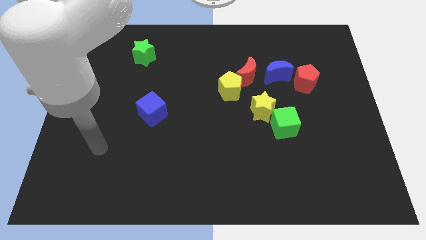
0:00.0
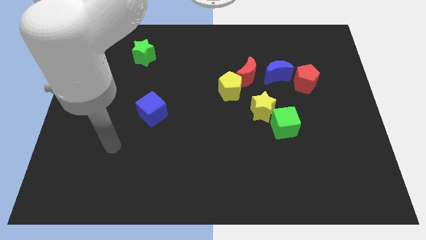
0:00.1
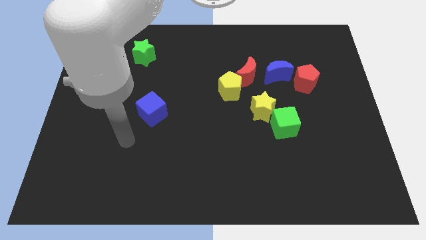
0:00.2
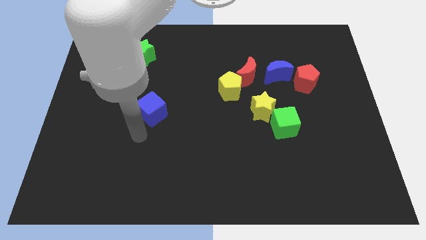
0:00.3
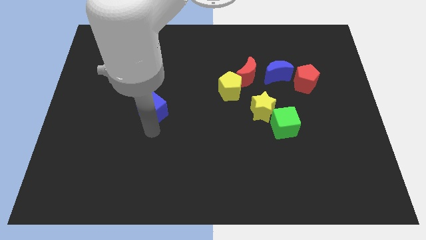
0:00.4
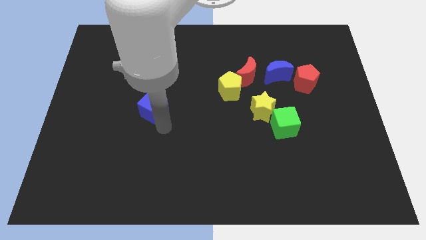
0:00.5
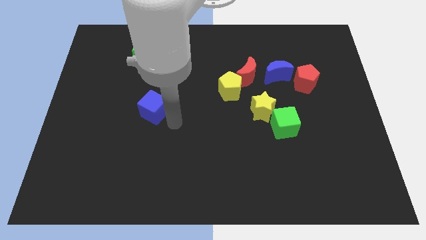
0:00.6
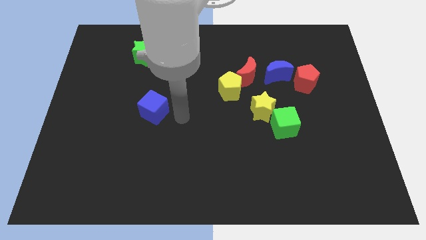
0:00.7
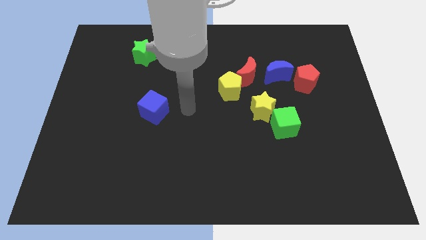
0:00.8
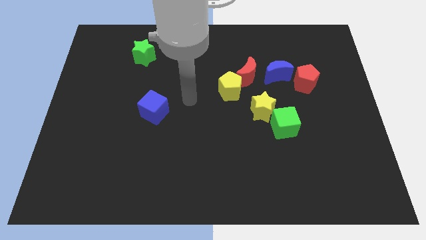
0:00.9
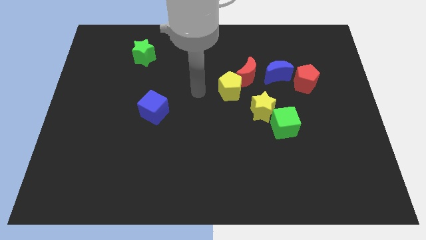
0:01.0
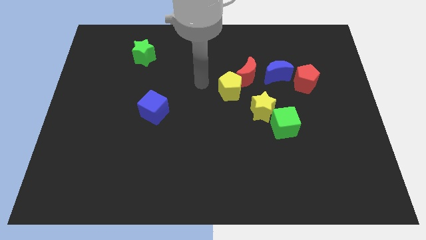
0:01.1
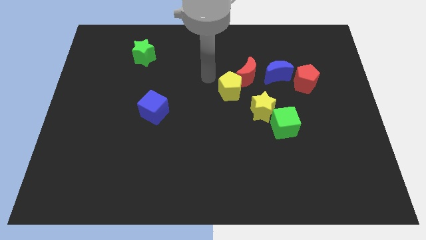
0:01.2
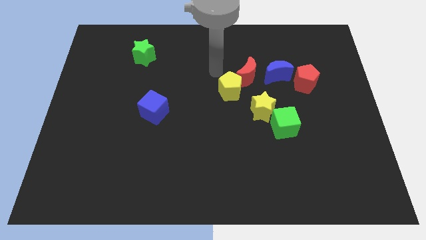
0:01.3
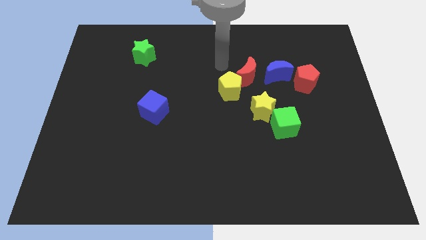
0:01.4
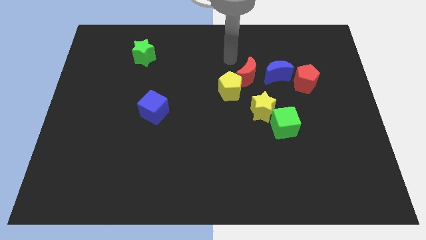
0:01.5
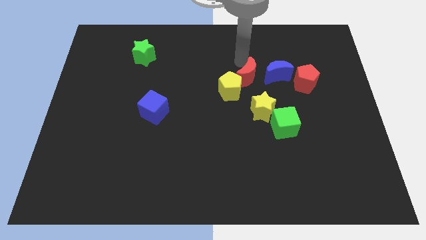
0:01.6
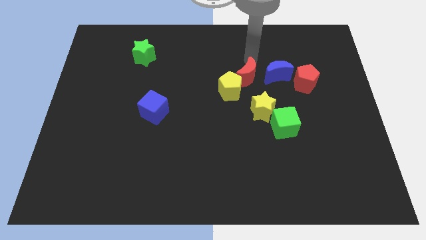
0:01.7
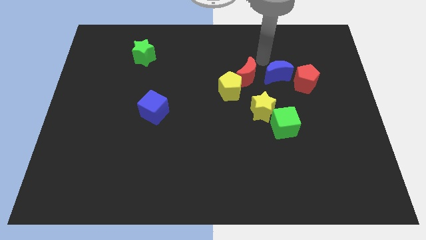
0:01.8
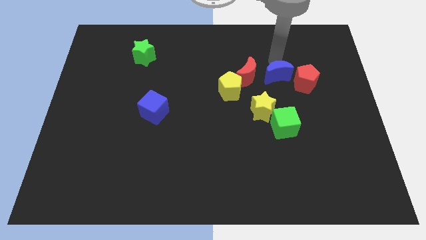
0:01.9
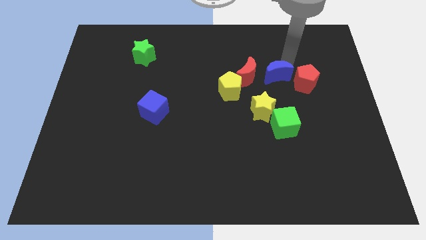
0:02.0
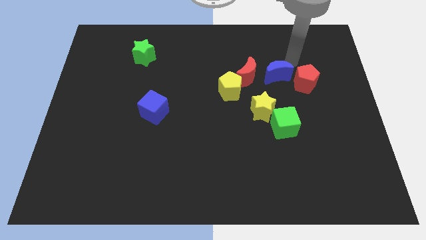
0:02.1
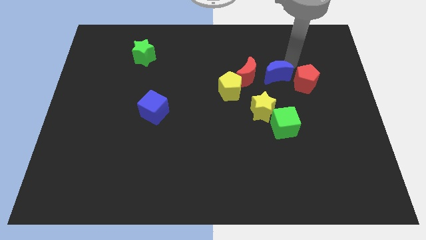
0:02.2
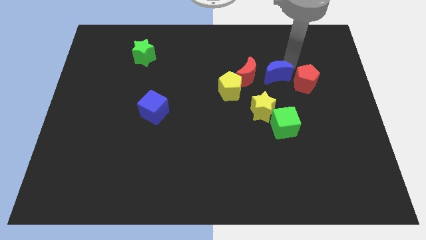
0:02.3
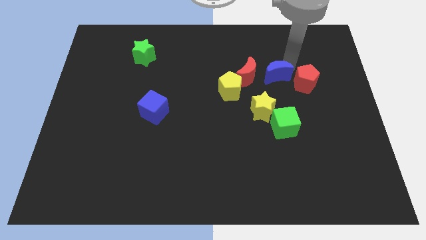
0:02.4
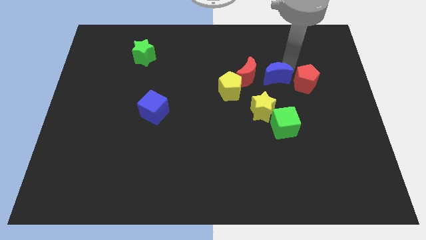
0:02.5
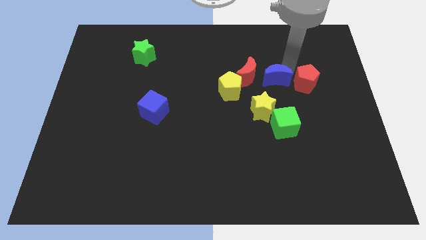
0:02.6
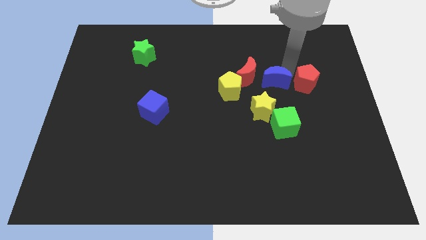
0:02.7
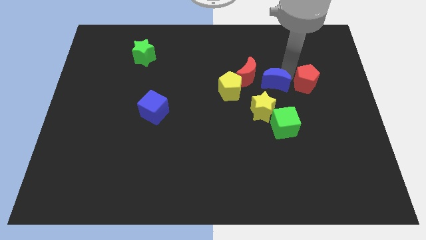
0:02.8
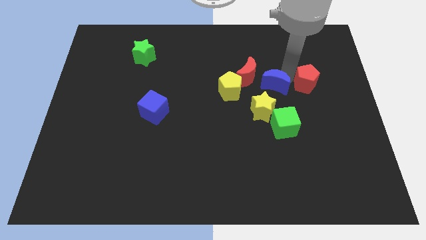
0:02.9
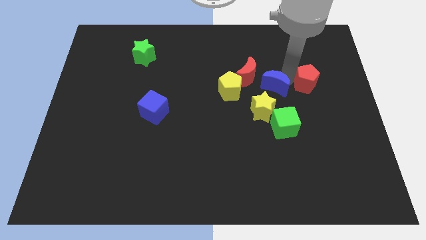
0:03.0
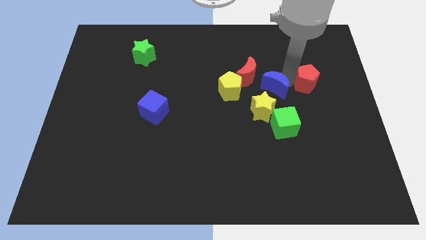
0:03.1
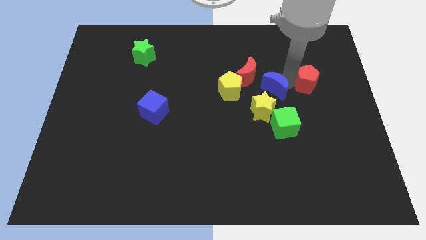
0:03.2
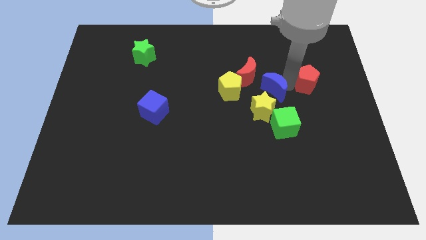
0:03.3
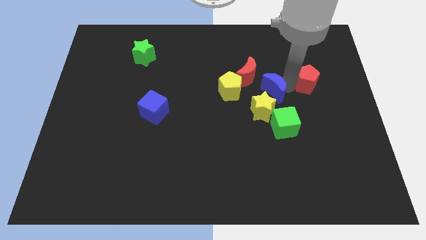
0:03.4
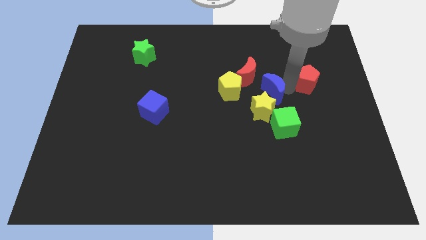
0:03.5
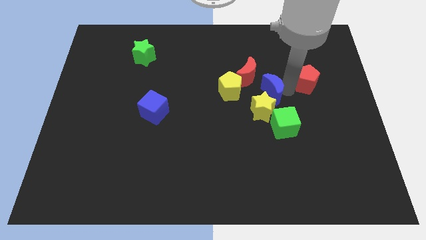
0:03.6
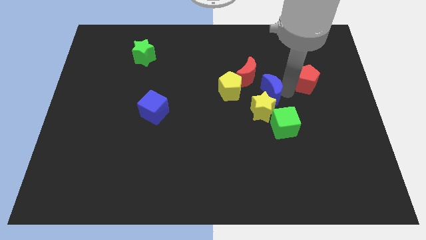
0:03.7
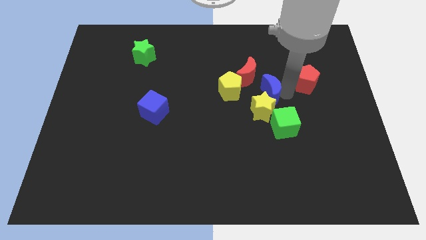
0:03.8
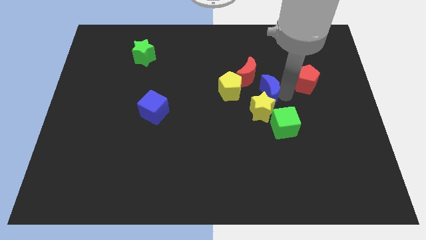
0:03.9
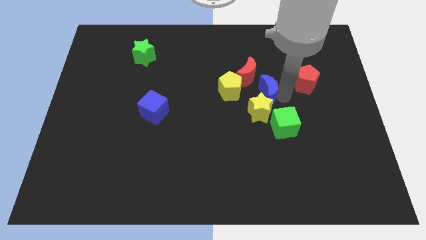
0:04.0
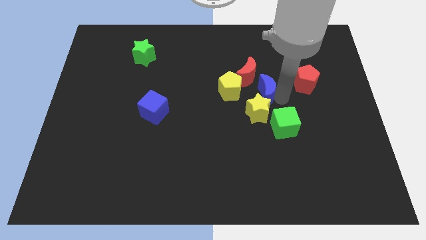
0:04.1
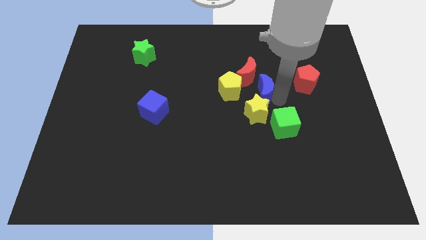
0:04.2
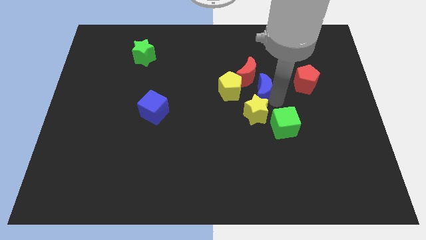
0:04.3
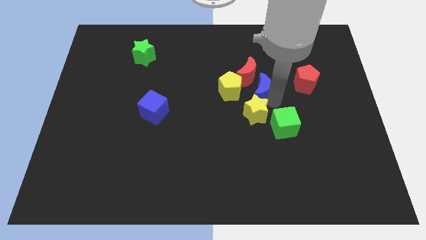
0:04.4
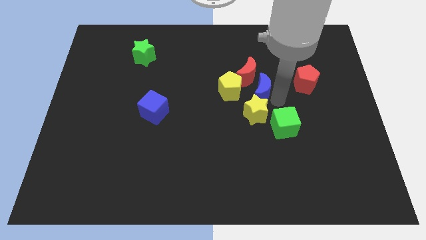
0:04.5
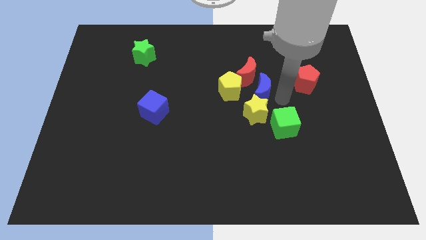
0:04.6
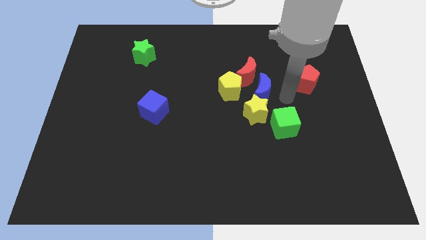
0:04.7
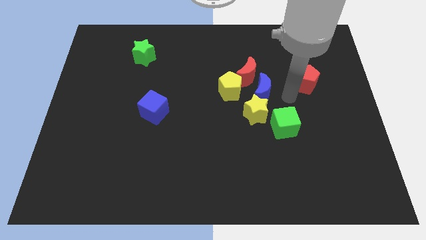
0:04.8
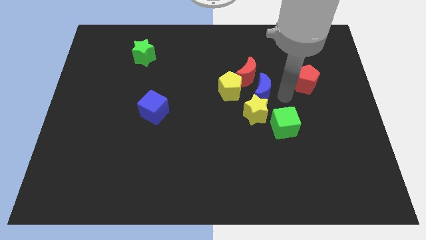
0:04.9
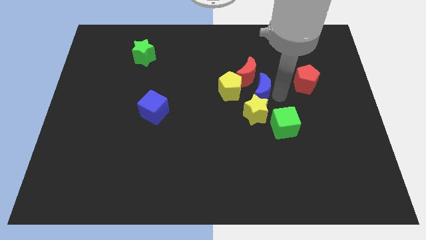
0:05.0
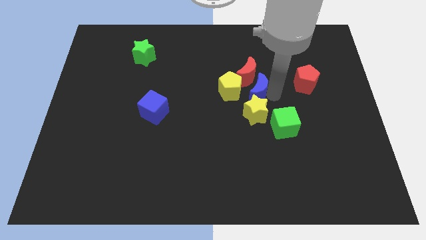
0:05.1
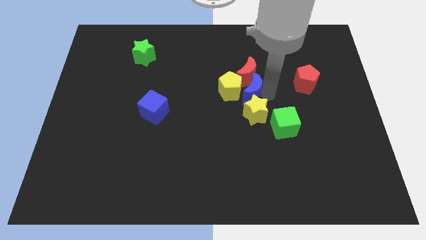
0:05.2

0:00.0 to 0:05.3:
move the blue moon towards the yellow pentagon

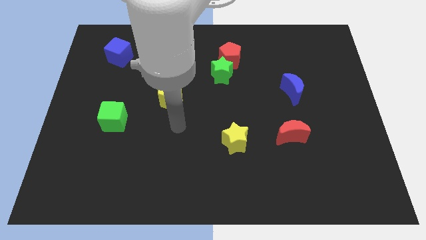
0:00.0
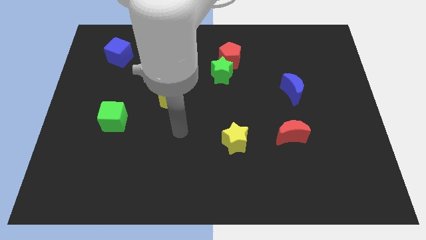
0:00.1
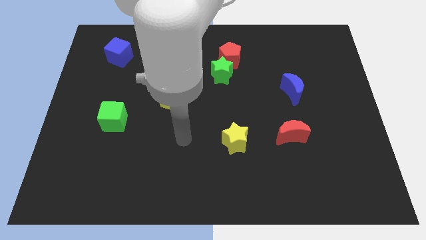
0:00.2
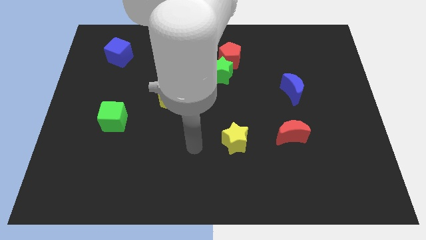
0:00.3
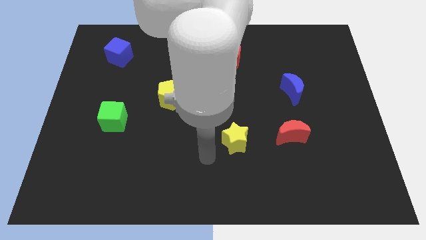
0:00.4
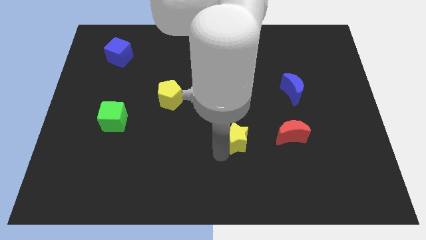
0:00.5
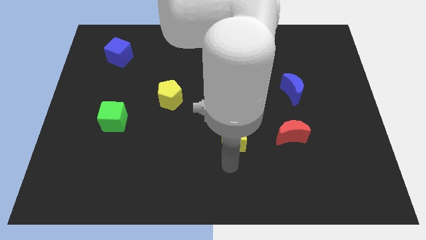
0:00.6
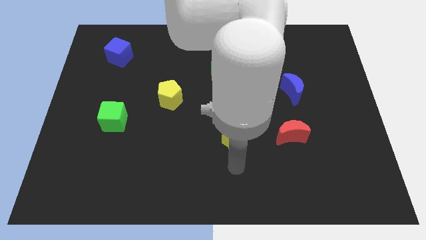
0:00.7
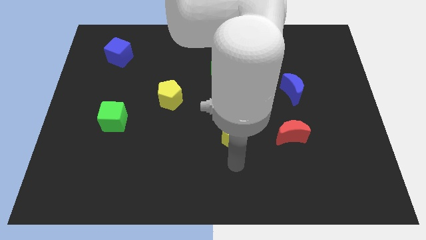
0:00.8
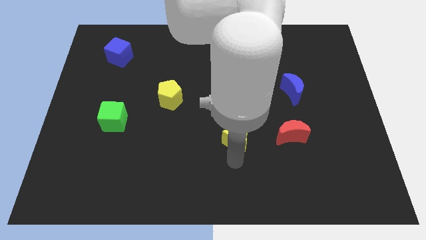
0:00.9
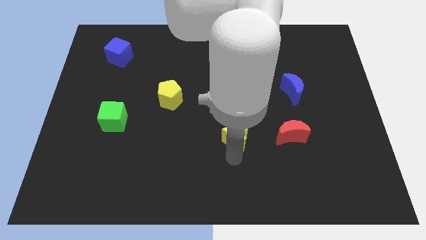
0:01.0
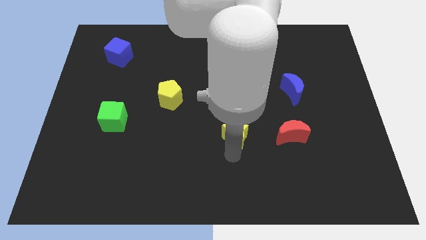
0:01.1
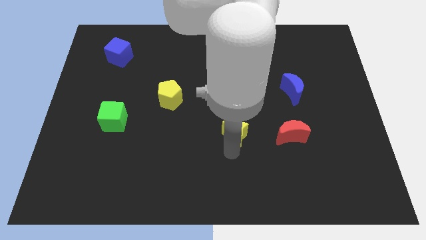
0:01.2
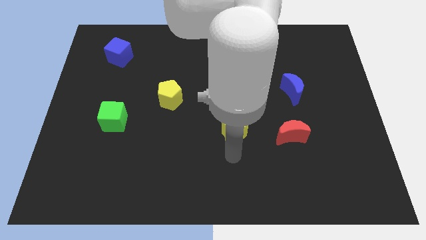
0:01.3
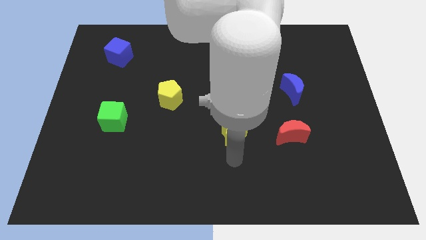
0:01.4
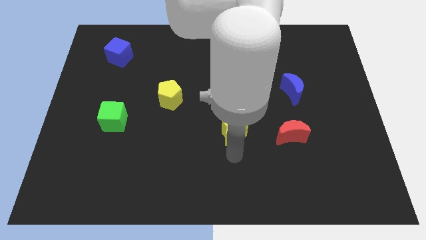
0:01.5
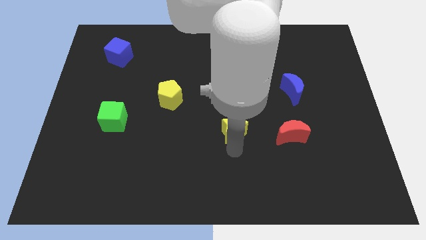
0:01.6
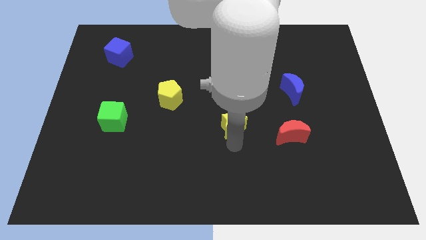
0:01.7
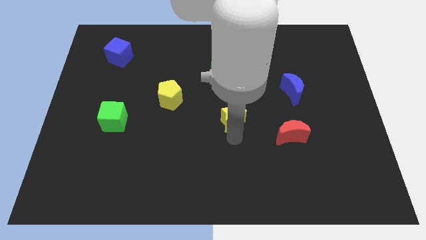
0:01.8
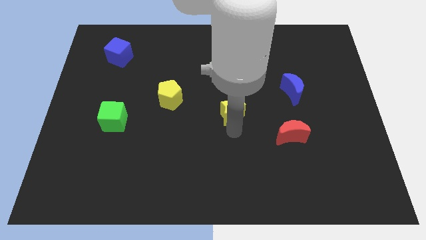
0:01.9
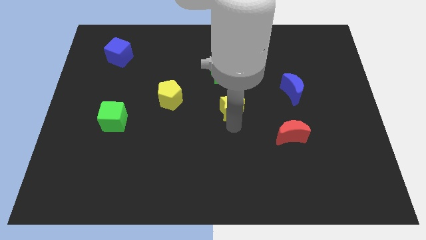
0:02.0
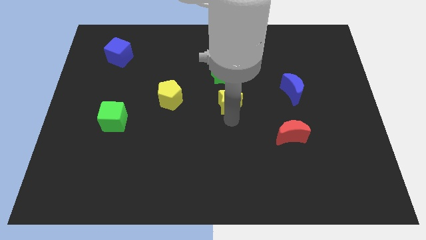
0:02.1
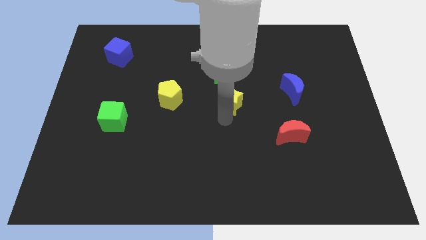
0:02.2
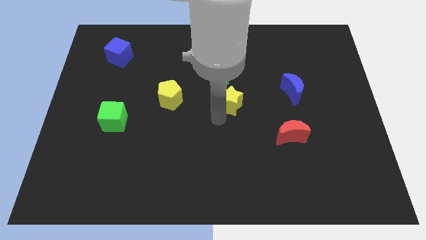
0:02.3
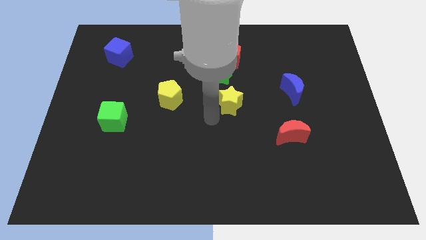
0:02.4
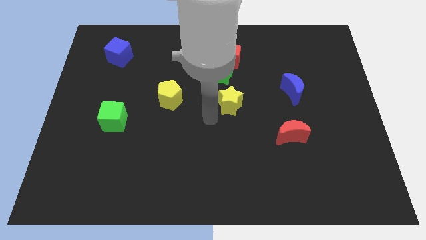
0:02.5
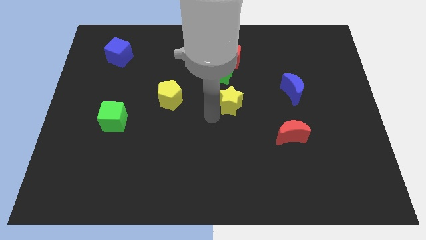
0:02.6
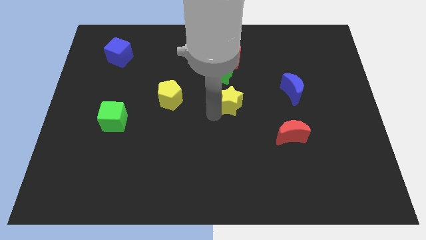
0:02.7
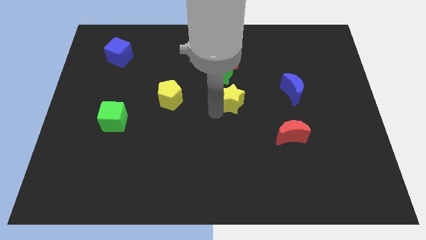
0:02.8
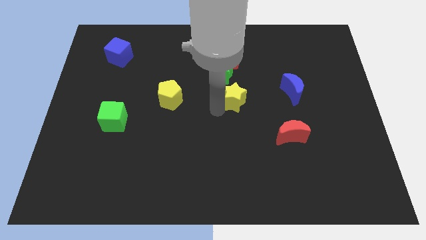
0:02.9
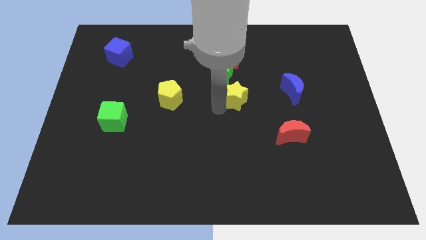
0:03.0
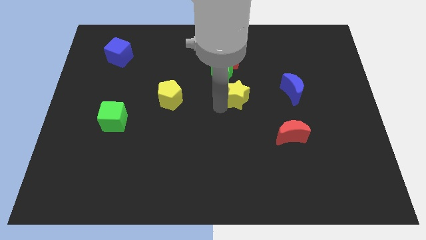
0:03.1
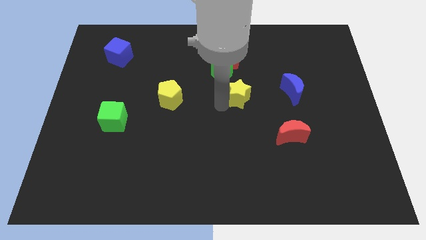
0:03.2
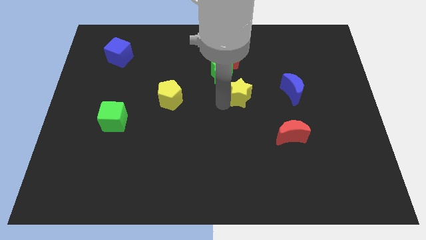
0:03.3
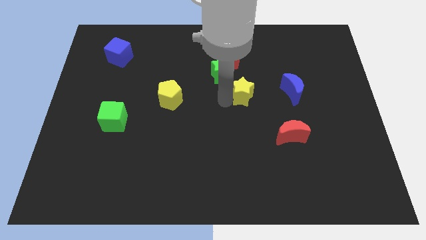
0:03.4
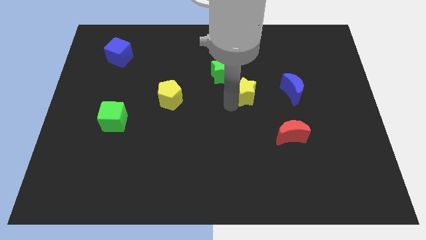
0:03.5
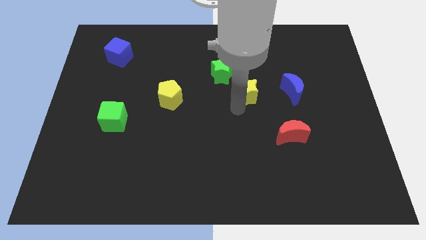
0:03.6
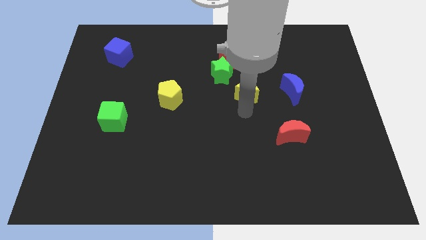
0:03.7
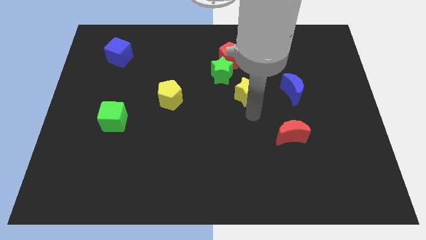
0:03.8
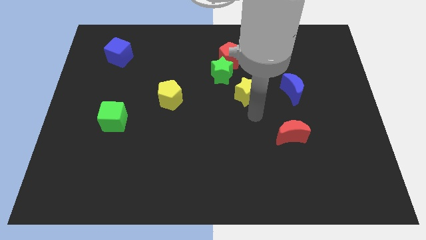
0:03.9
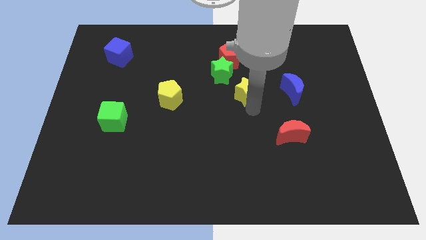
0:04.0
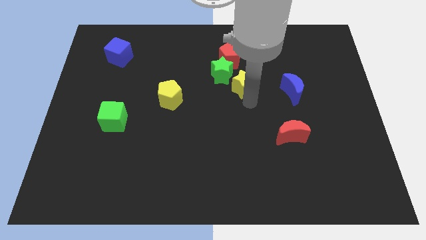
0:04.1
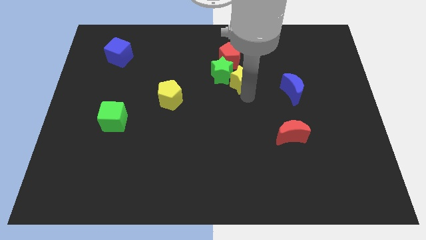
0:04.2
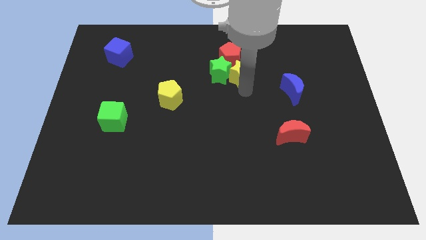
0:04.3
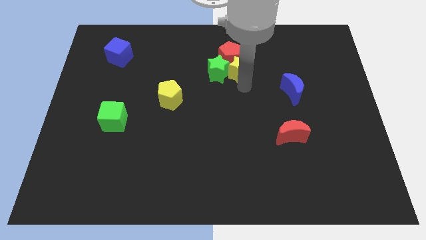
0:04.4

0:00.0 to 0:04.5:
move the yellow star close to the red pentagon
